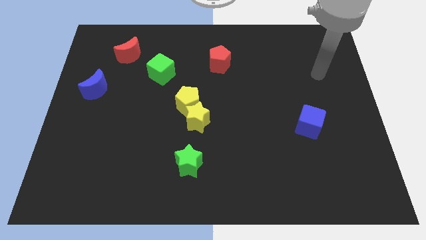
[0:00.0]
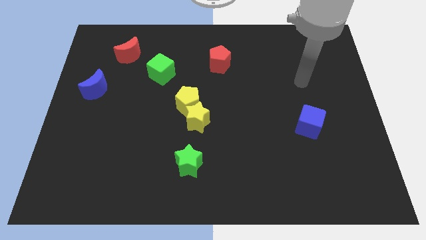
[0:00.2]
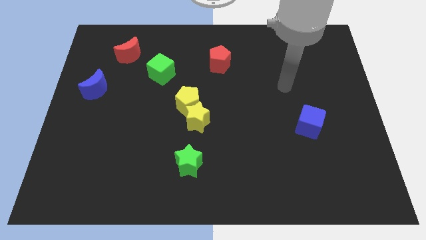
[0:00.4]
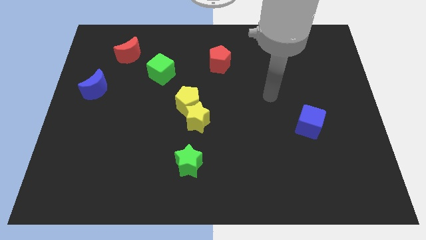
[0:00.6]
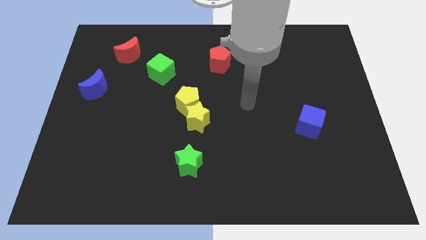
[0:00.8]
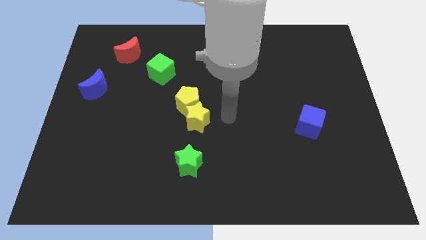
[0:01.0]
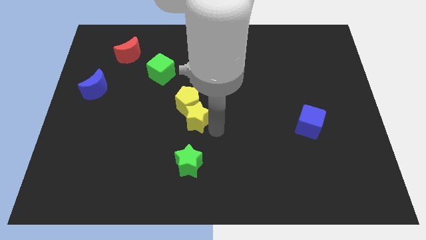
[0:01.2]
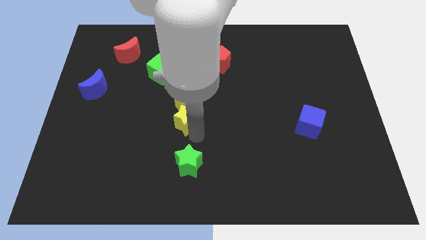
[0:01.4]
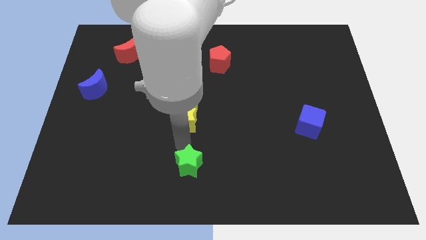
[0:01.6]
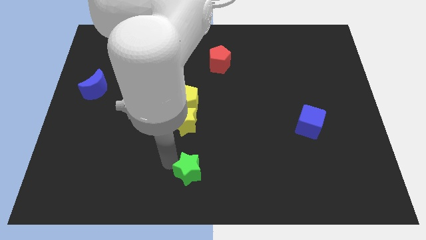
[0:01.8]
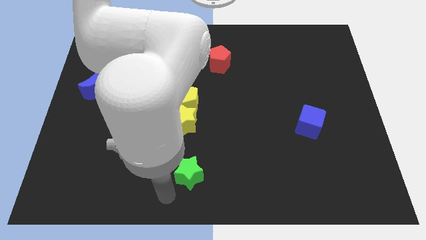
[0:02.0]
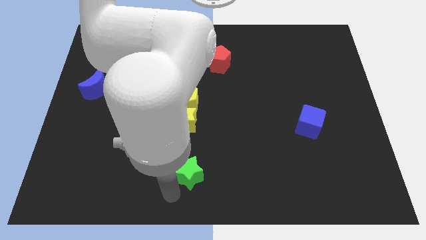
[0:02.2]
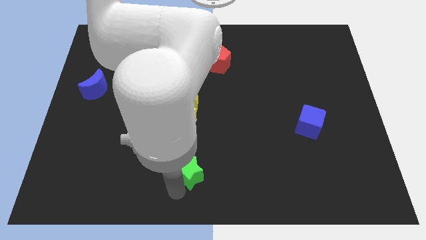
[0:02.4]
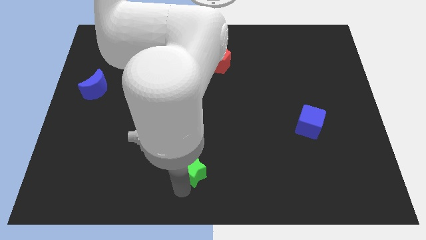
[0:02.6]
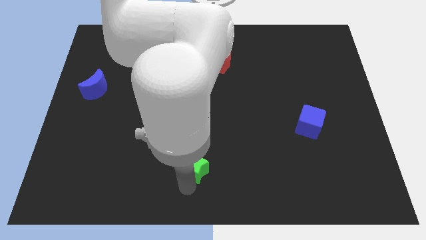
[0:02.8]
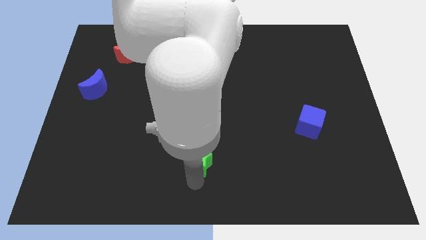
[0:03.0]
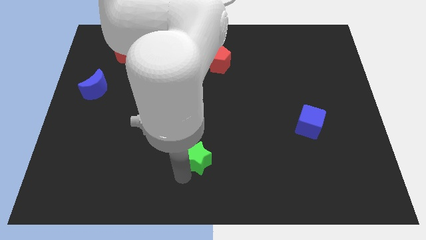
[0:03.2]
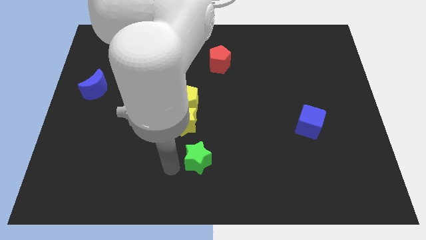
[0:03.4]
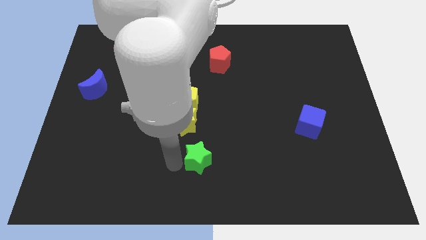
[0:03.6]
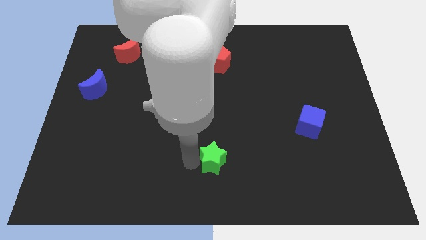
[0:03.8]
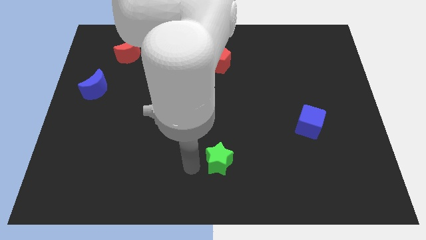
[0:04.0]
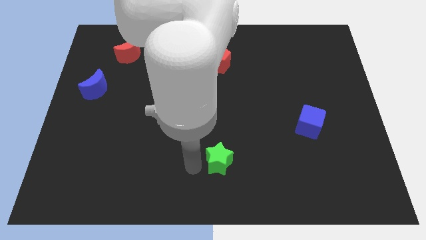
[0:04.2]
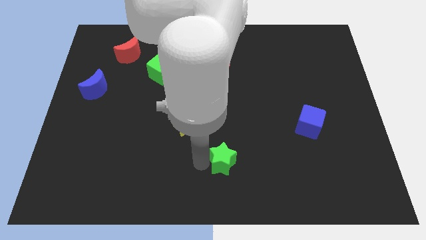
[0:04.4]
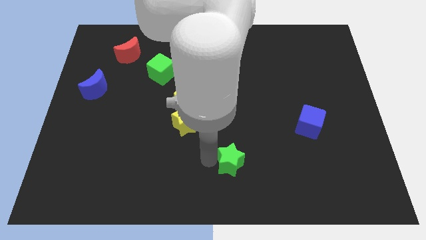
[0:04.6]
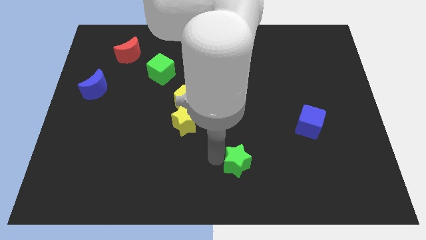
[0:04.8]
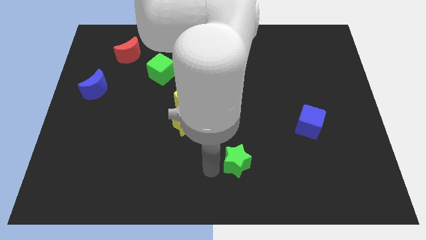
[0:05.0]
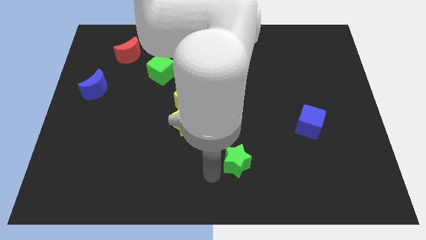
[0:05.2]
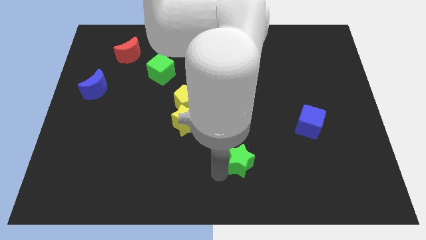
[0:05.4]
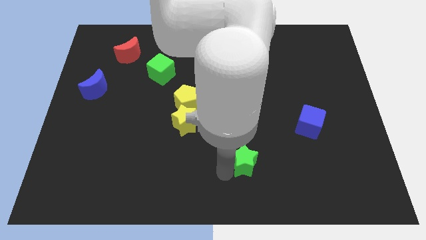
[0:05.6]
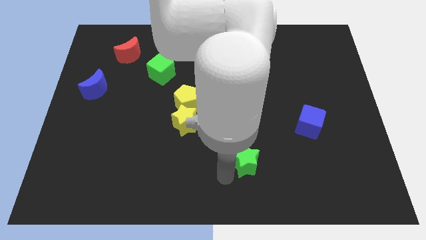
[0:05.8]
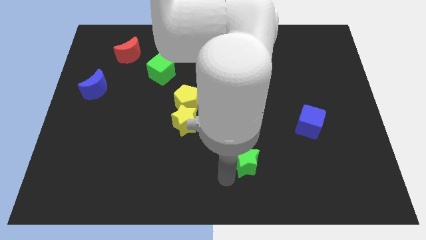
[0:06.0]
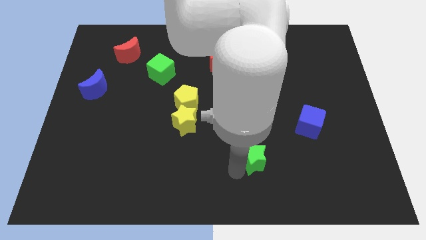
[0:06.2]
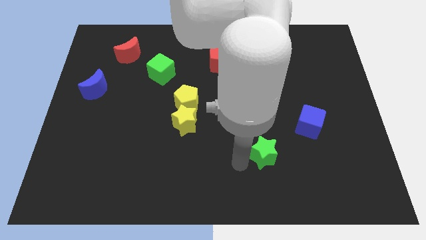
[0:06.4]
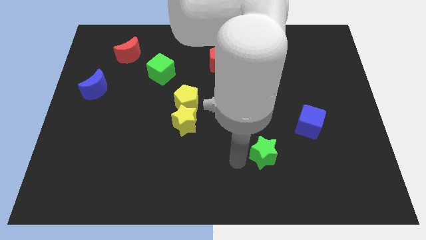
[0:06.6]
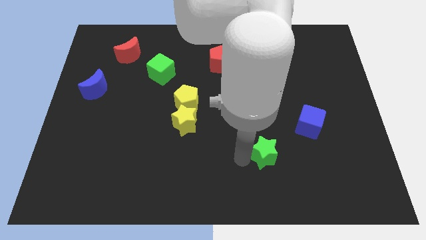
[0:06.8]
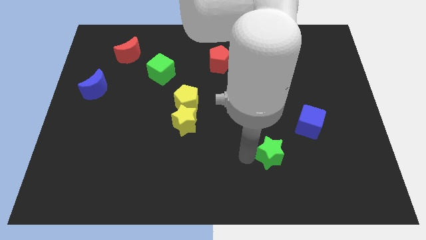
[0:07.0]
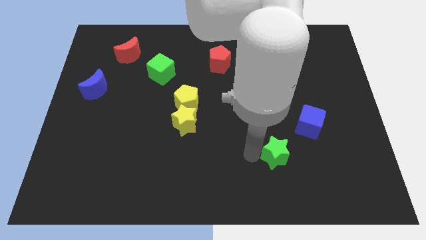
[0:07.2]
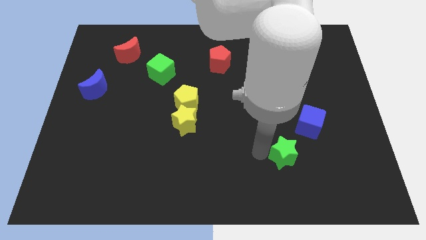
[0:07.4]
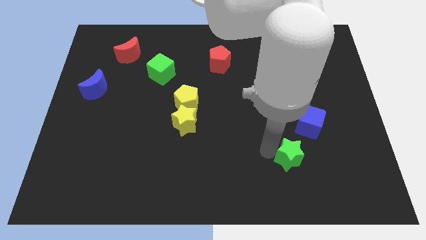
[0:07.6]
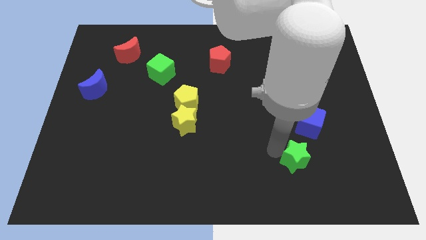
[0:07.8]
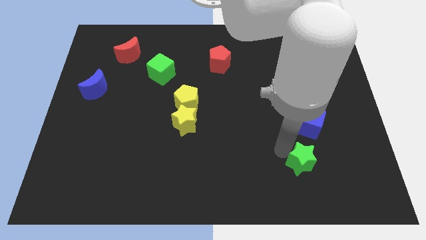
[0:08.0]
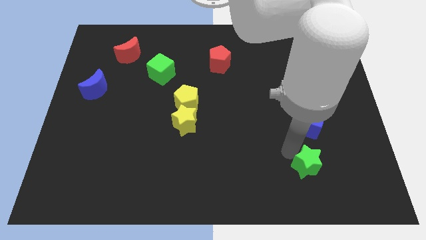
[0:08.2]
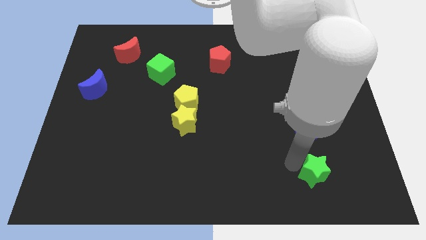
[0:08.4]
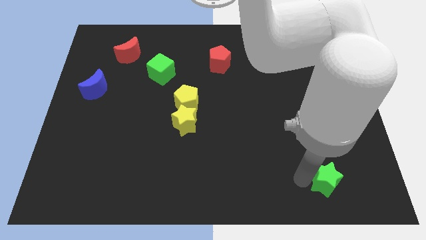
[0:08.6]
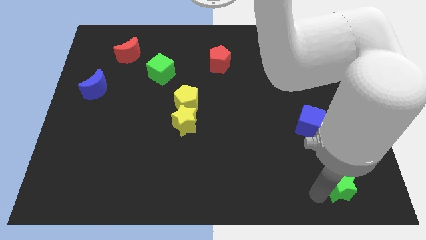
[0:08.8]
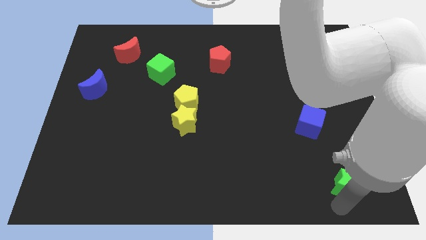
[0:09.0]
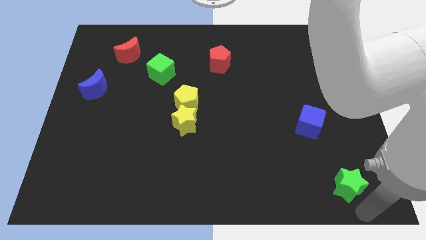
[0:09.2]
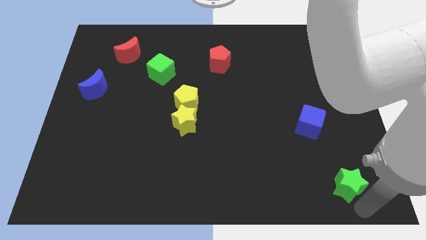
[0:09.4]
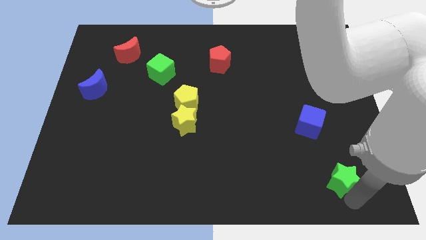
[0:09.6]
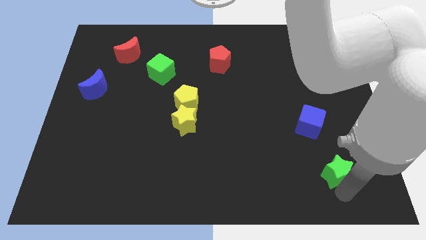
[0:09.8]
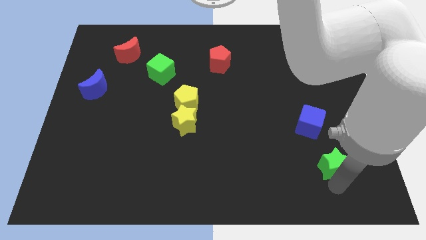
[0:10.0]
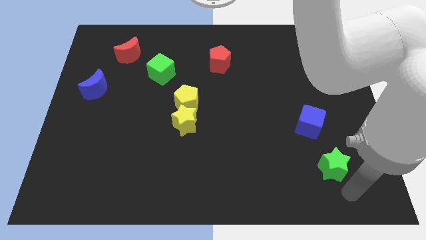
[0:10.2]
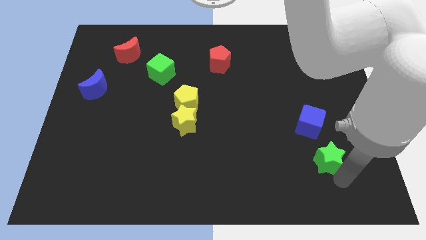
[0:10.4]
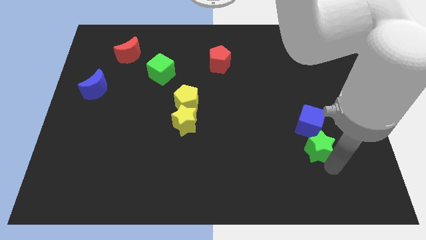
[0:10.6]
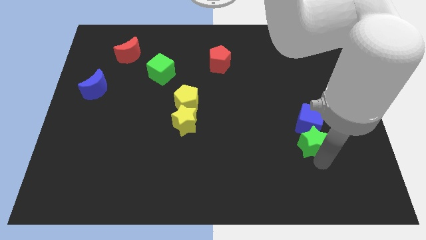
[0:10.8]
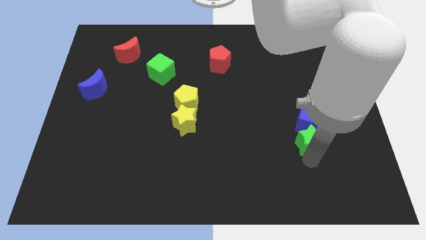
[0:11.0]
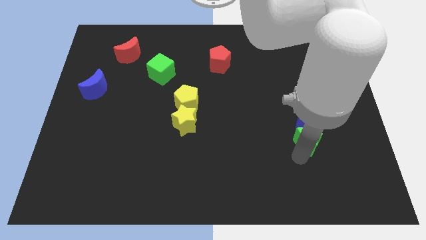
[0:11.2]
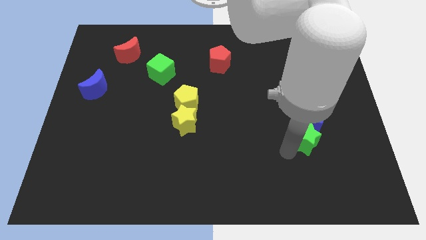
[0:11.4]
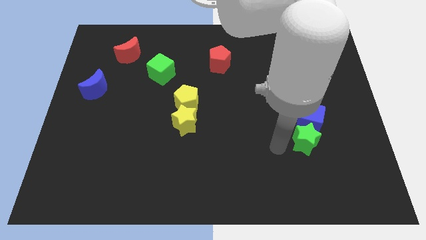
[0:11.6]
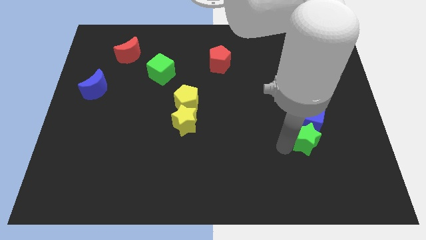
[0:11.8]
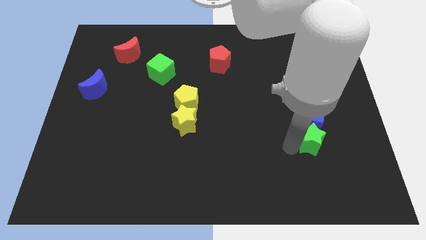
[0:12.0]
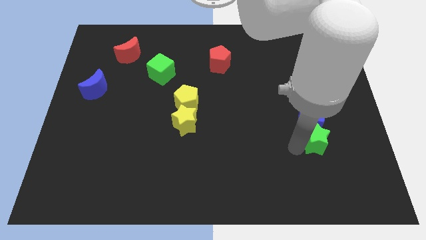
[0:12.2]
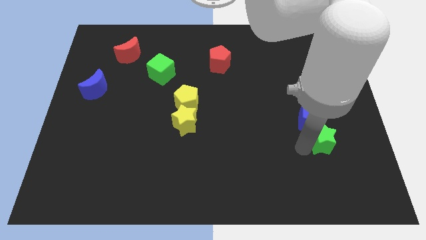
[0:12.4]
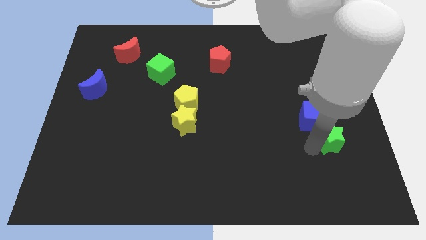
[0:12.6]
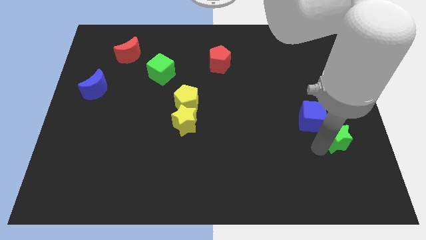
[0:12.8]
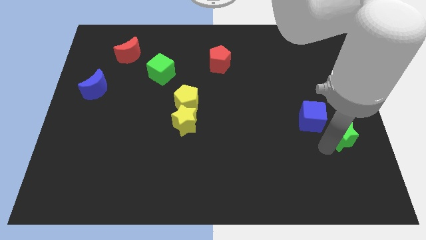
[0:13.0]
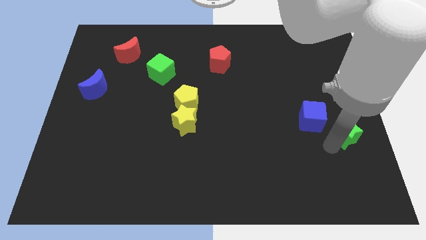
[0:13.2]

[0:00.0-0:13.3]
slide the green star to the right side
